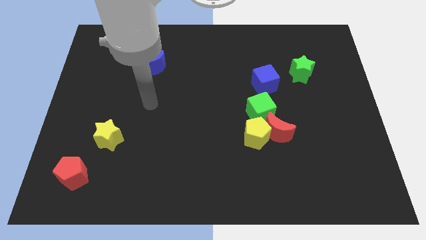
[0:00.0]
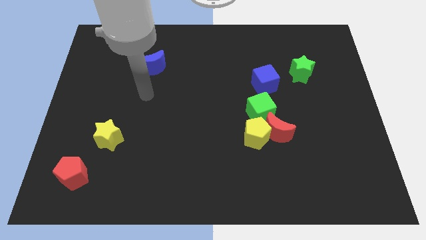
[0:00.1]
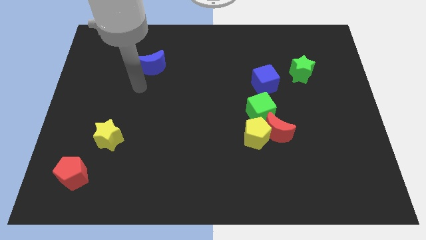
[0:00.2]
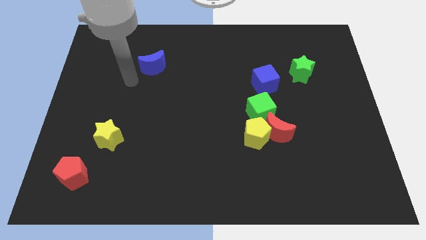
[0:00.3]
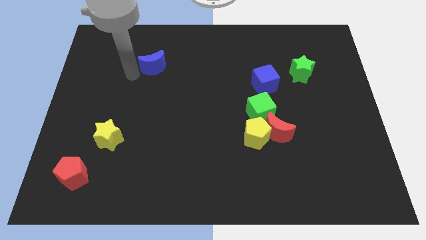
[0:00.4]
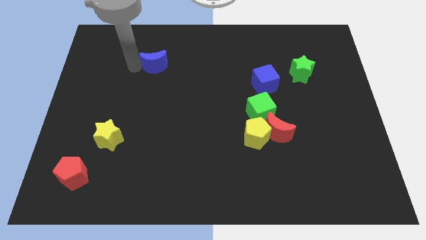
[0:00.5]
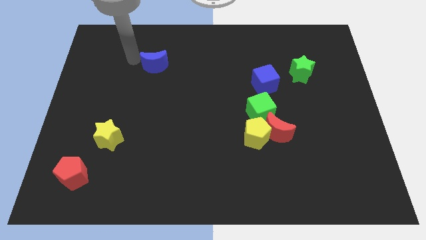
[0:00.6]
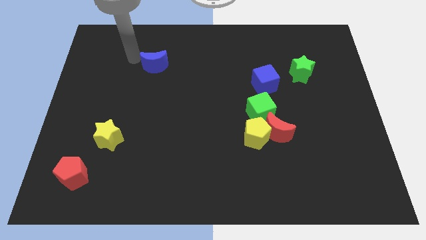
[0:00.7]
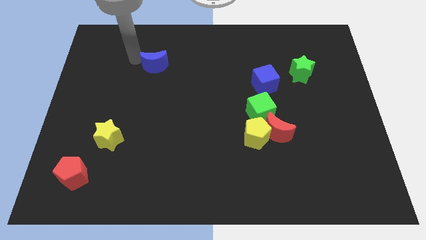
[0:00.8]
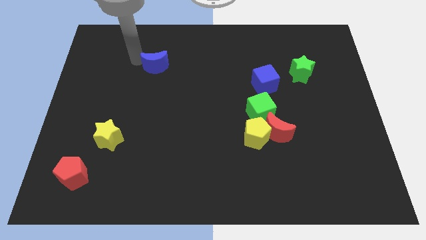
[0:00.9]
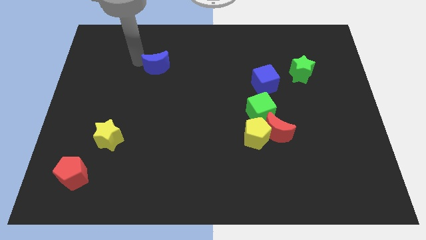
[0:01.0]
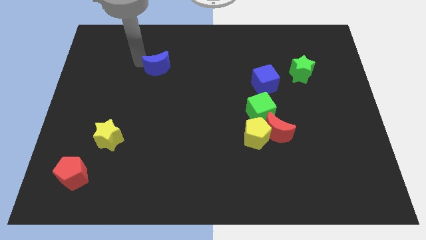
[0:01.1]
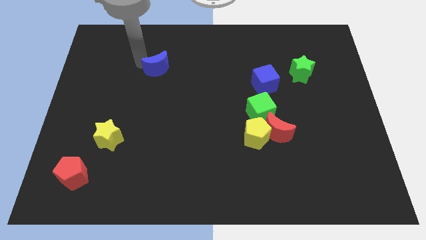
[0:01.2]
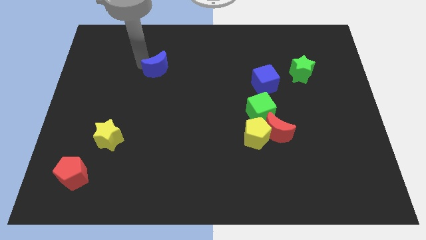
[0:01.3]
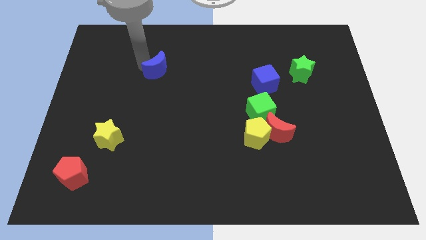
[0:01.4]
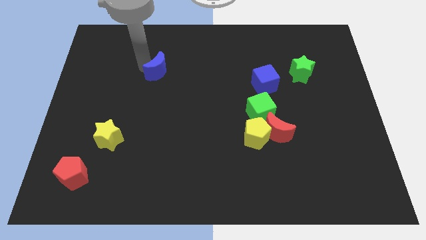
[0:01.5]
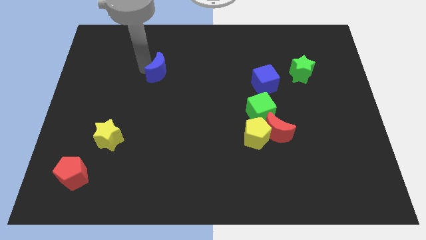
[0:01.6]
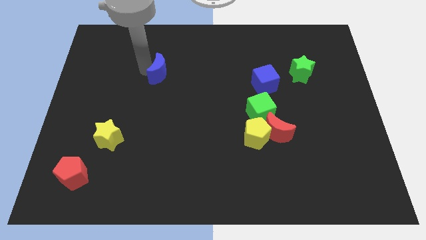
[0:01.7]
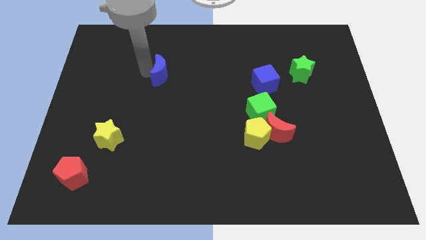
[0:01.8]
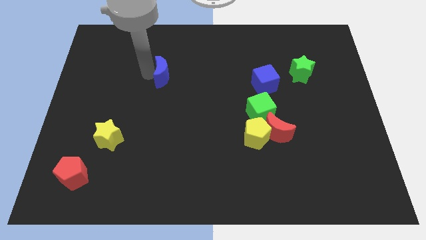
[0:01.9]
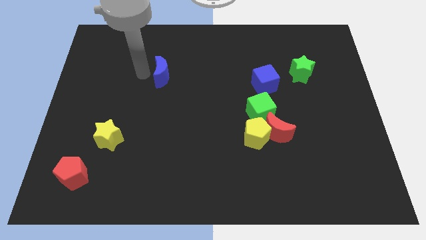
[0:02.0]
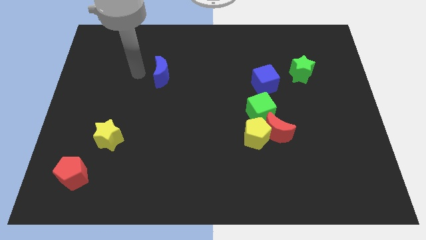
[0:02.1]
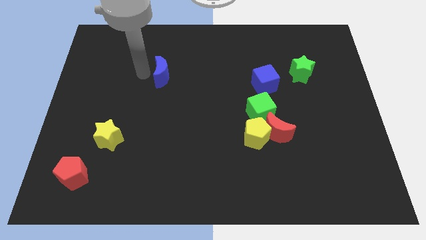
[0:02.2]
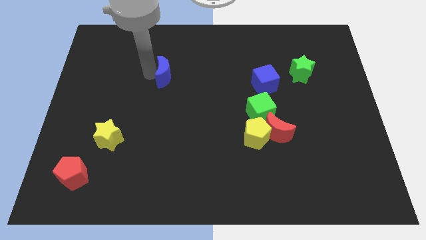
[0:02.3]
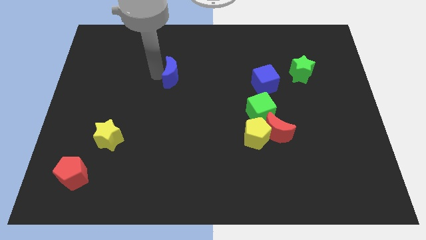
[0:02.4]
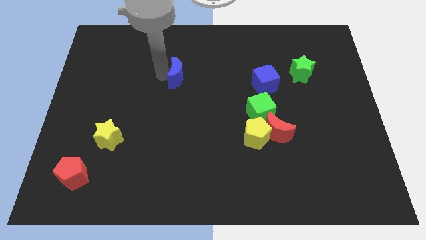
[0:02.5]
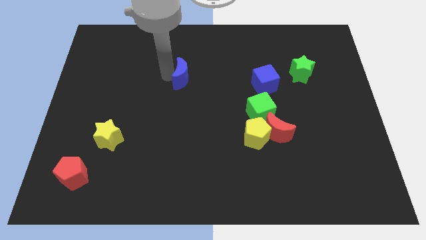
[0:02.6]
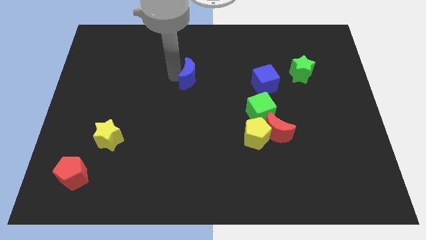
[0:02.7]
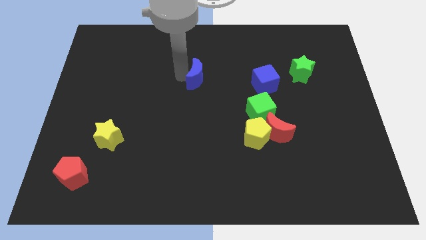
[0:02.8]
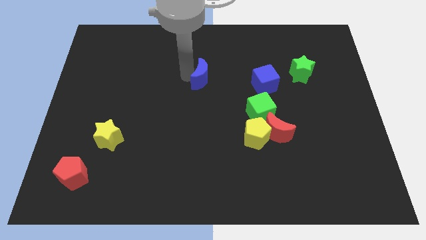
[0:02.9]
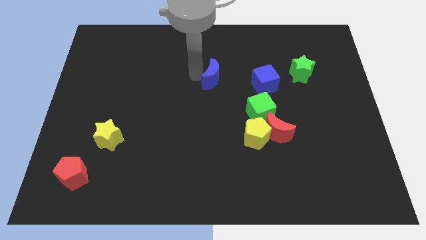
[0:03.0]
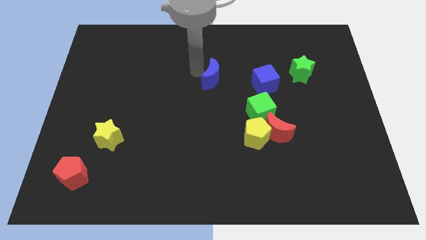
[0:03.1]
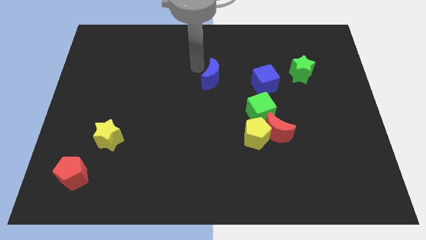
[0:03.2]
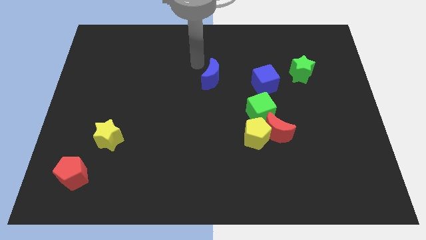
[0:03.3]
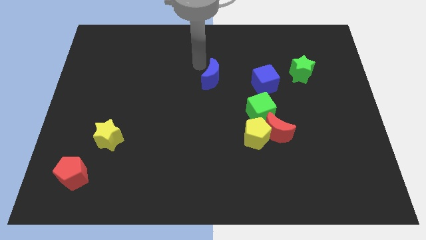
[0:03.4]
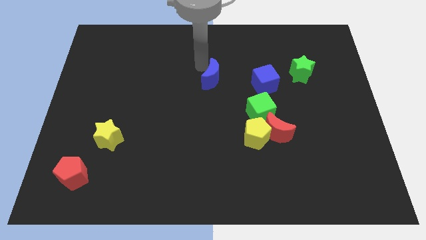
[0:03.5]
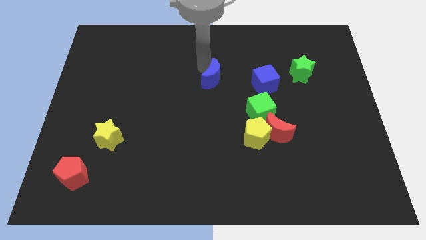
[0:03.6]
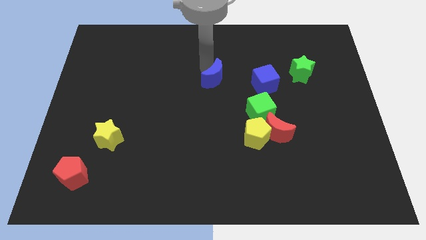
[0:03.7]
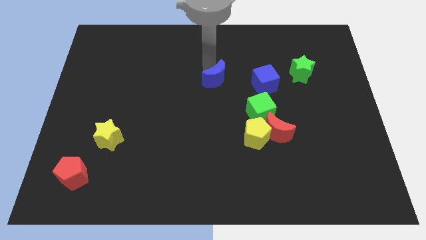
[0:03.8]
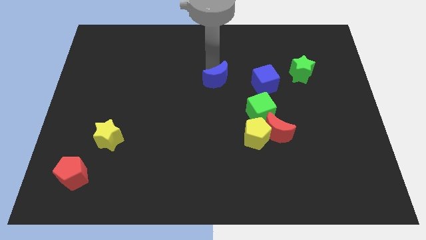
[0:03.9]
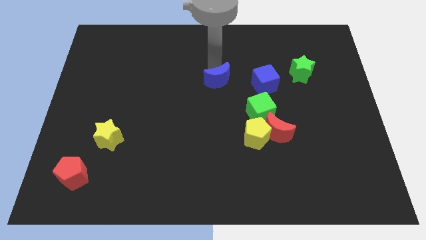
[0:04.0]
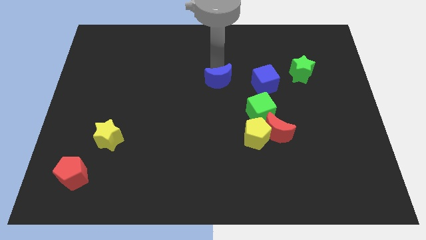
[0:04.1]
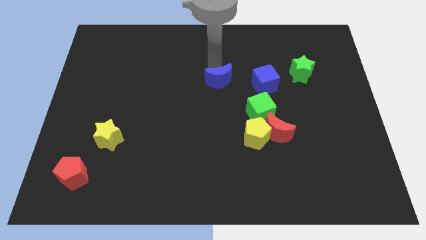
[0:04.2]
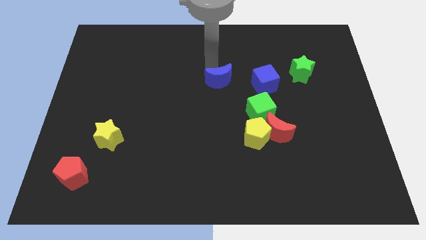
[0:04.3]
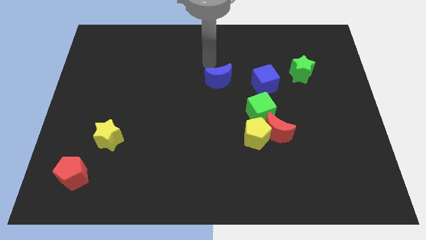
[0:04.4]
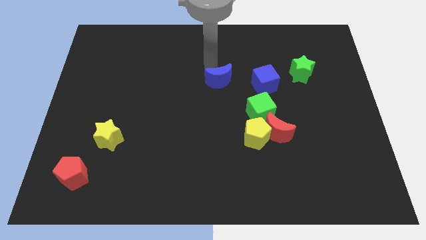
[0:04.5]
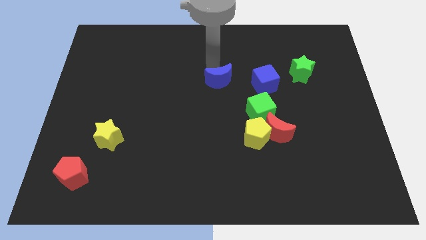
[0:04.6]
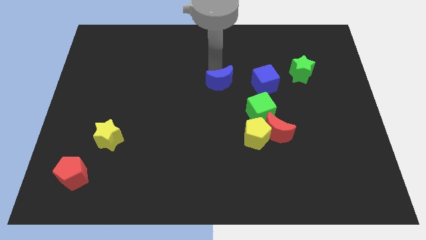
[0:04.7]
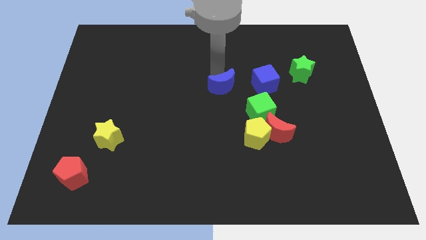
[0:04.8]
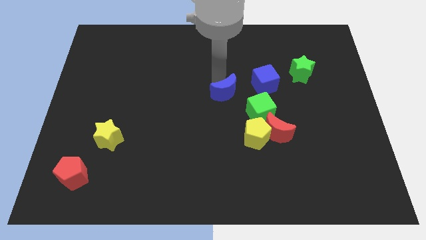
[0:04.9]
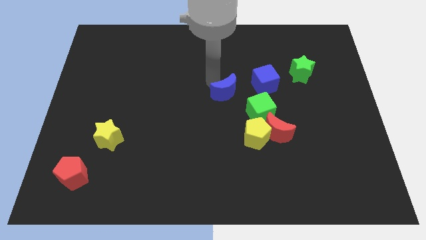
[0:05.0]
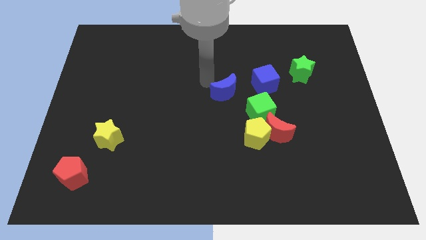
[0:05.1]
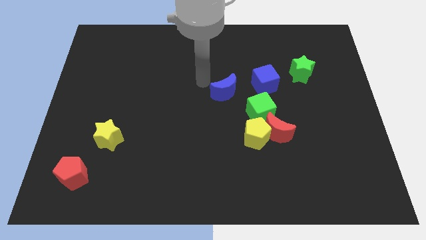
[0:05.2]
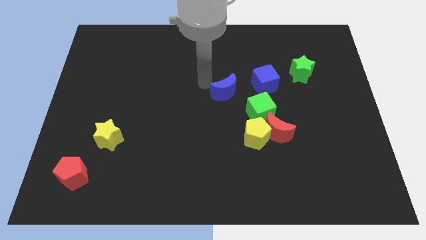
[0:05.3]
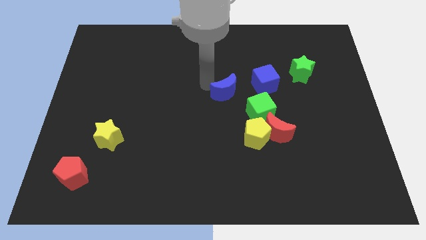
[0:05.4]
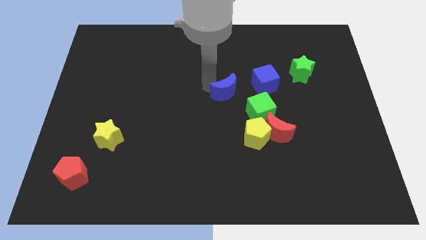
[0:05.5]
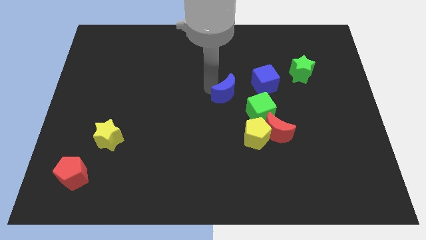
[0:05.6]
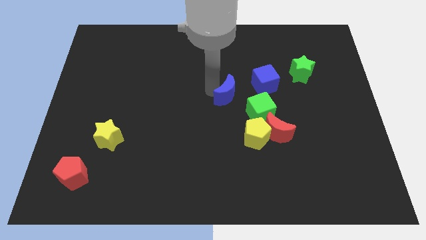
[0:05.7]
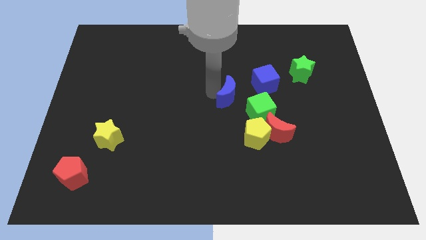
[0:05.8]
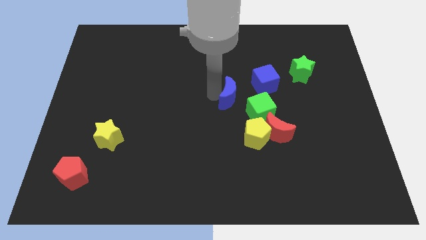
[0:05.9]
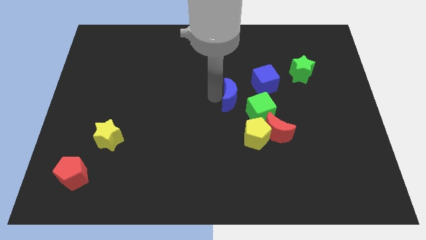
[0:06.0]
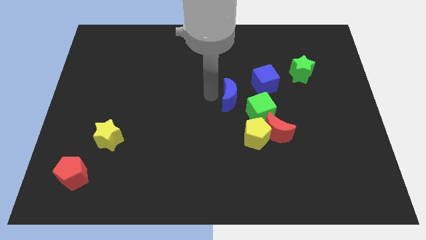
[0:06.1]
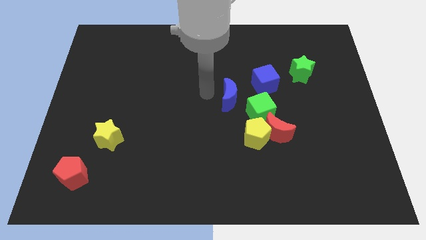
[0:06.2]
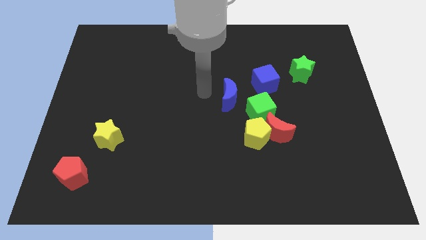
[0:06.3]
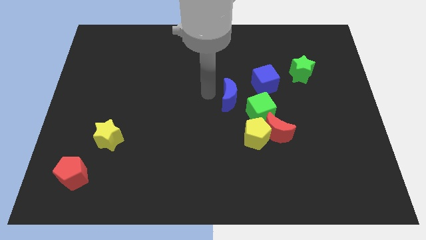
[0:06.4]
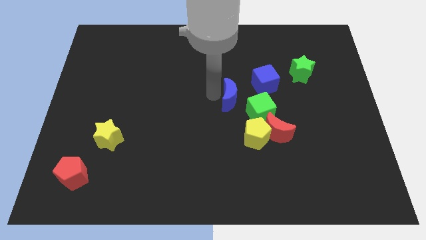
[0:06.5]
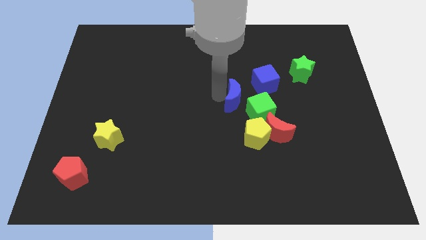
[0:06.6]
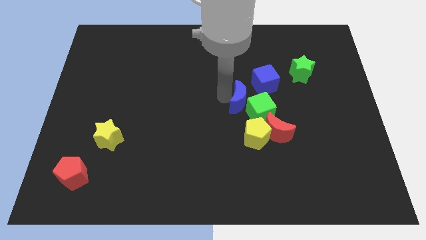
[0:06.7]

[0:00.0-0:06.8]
move the blue moon towards the green cube

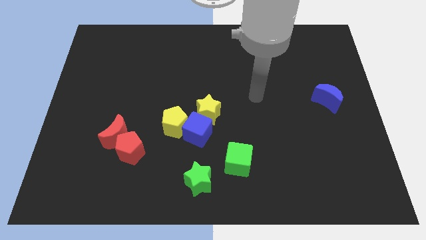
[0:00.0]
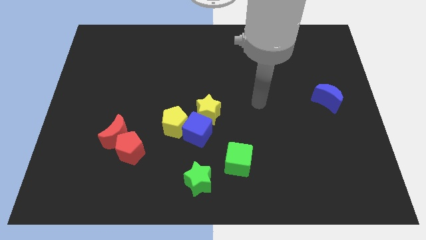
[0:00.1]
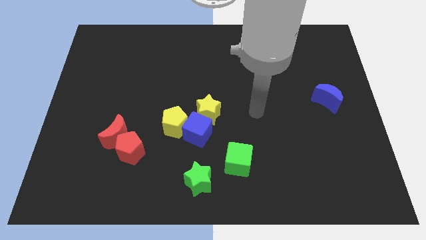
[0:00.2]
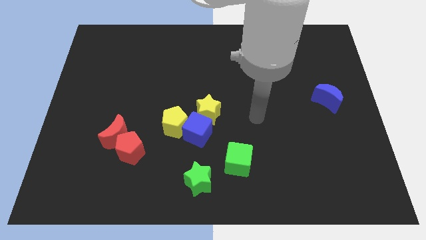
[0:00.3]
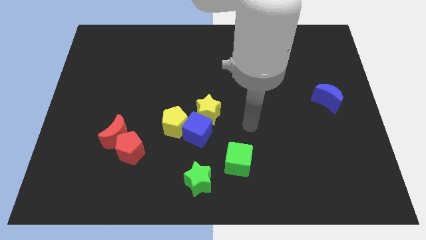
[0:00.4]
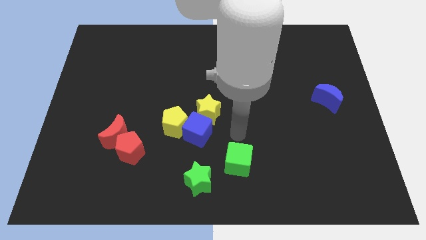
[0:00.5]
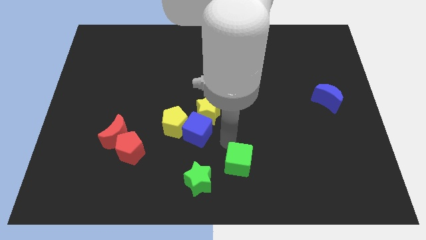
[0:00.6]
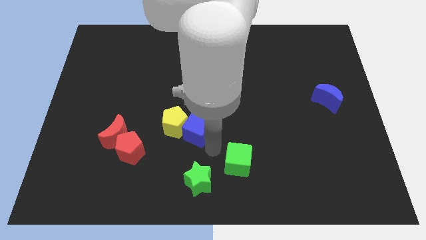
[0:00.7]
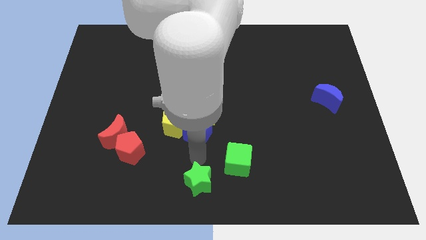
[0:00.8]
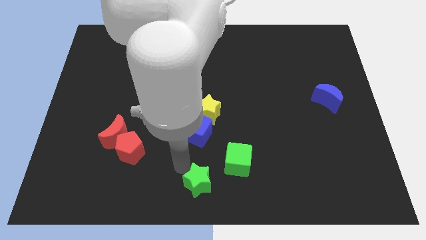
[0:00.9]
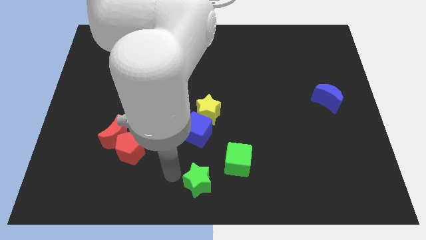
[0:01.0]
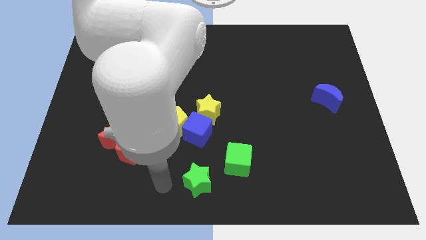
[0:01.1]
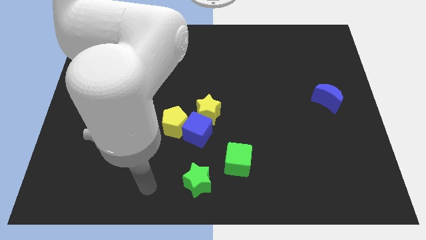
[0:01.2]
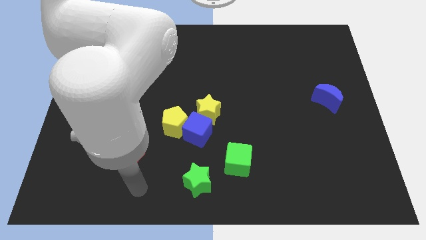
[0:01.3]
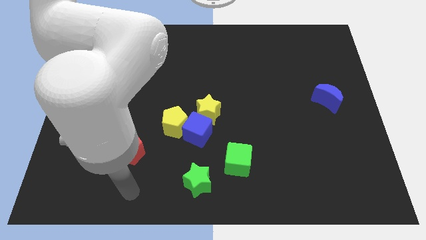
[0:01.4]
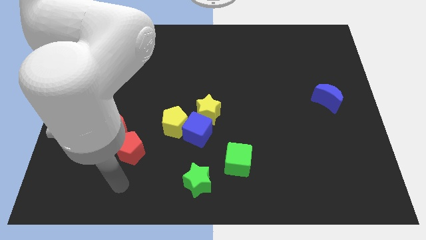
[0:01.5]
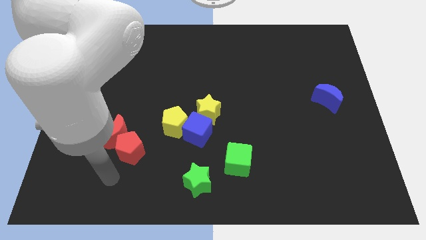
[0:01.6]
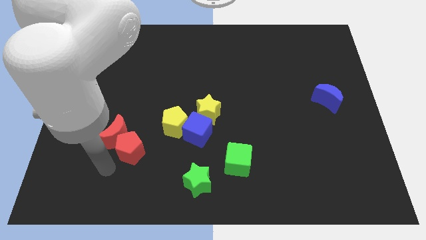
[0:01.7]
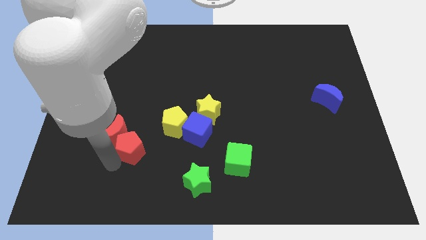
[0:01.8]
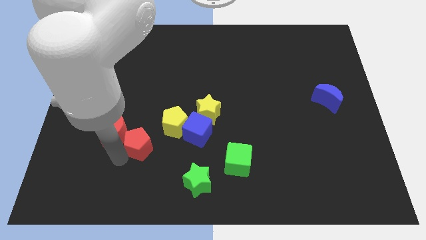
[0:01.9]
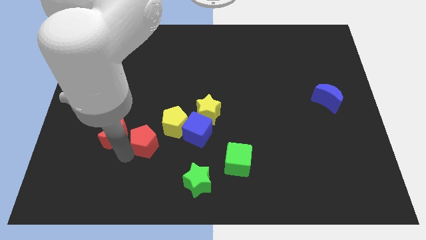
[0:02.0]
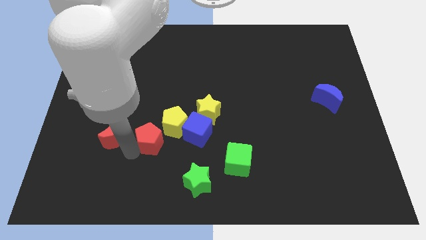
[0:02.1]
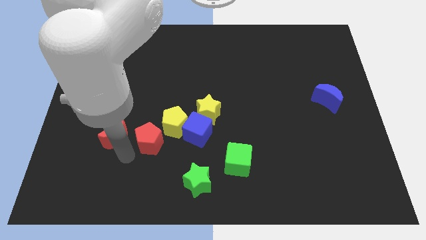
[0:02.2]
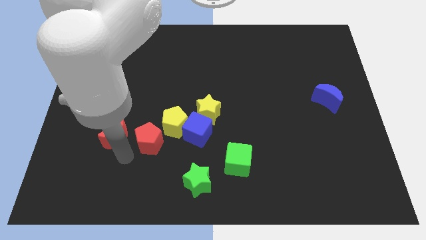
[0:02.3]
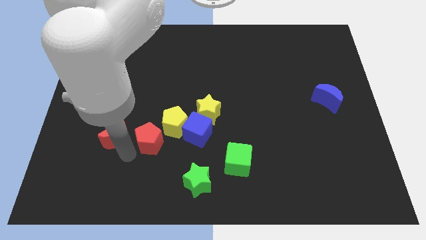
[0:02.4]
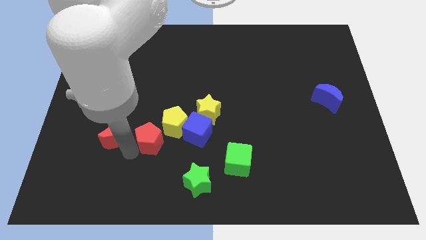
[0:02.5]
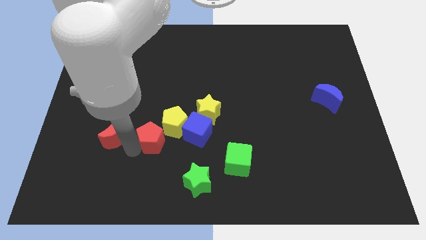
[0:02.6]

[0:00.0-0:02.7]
put the red pentagon towards the yellow pentagon
